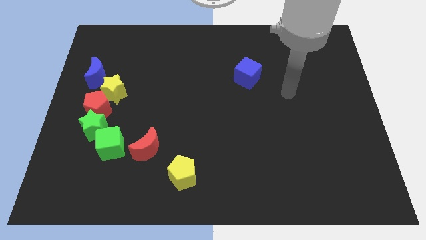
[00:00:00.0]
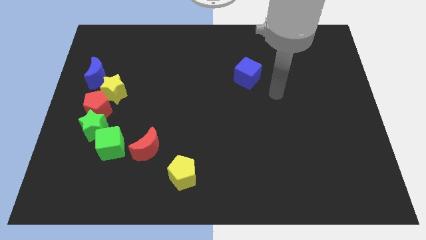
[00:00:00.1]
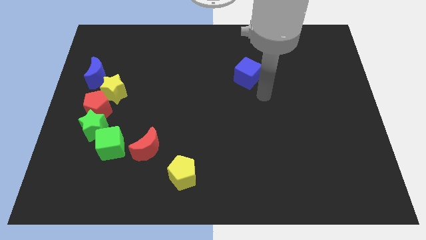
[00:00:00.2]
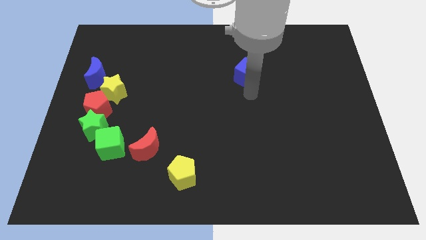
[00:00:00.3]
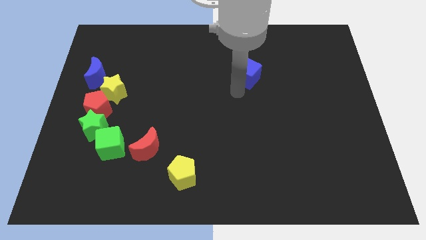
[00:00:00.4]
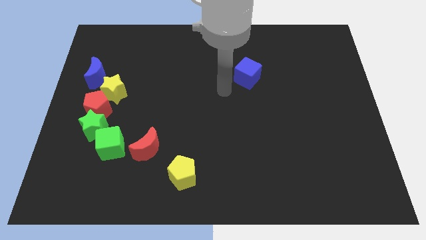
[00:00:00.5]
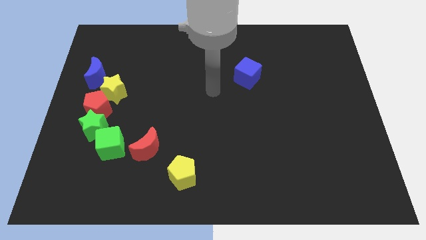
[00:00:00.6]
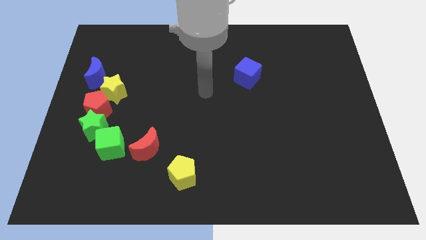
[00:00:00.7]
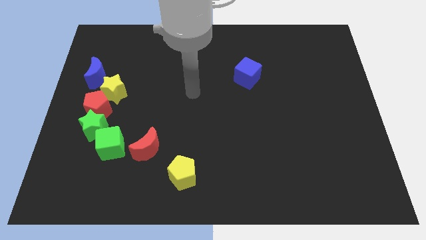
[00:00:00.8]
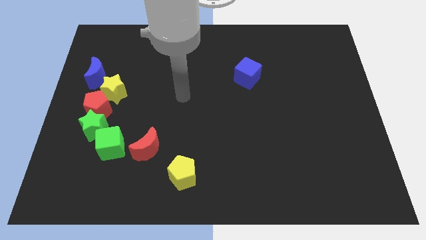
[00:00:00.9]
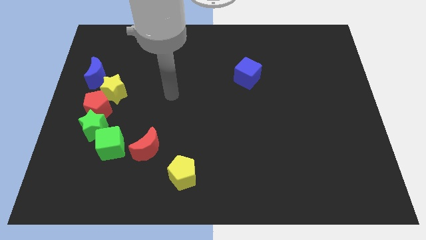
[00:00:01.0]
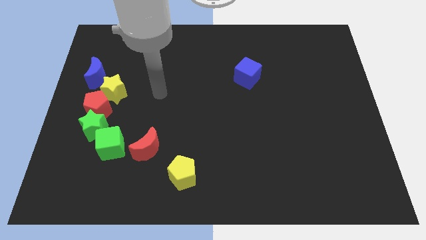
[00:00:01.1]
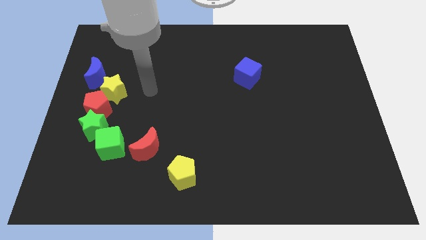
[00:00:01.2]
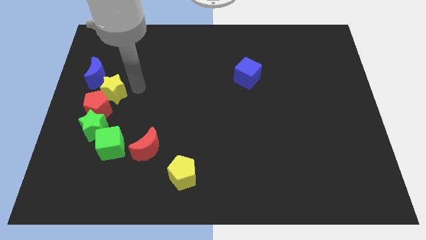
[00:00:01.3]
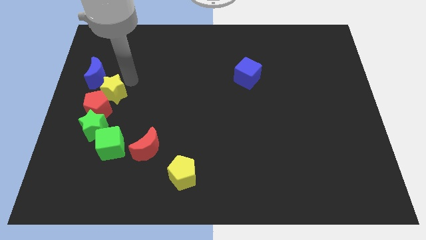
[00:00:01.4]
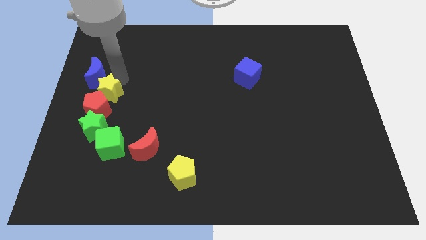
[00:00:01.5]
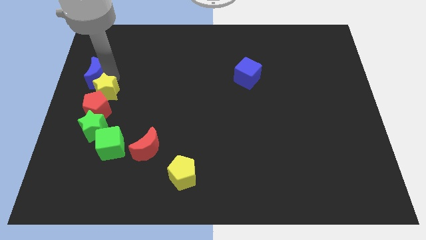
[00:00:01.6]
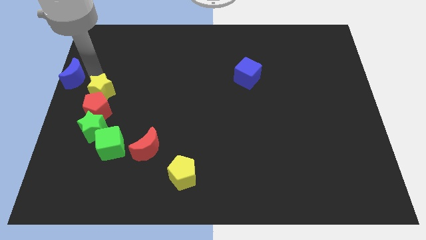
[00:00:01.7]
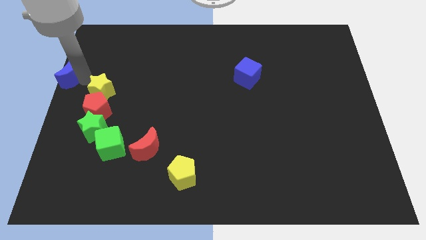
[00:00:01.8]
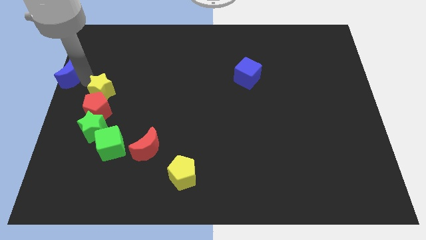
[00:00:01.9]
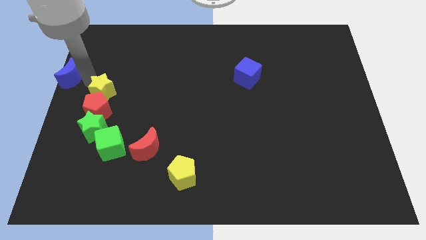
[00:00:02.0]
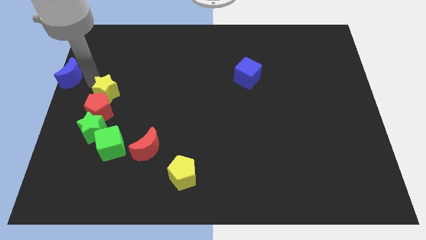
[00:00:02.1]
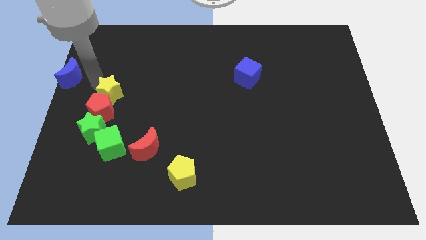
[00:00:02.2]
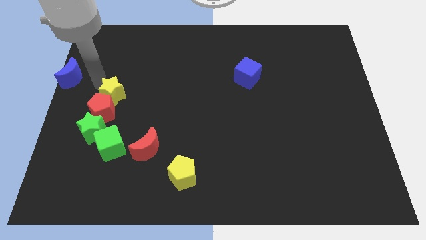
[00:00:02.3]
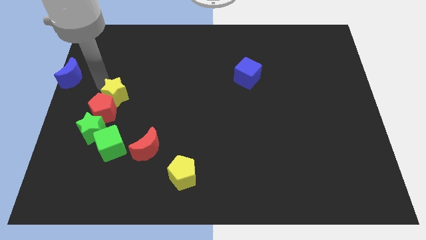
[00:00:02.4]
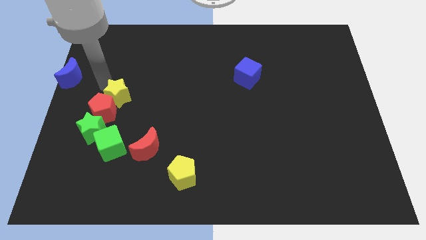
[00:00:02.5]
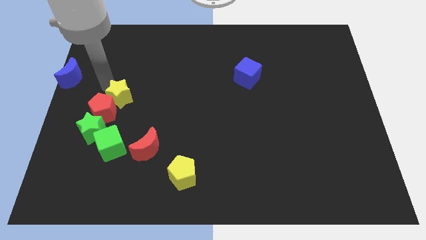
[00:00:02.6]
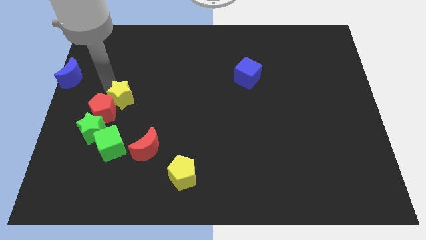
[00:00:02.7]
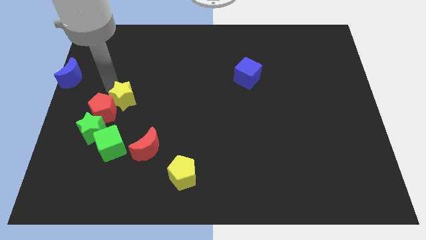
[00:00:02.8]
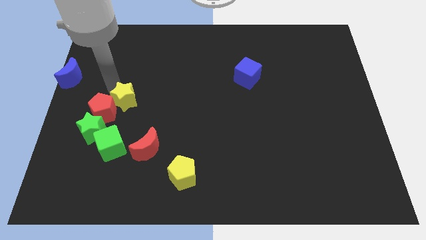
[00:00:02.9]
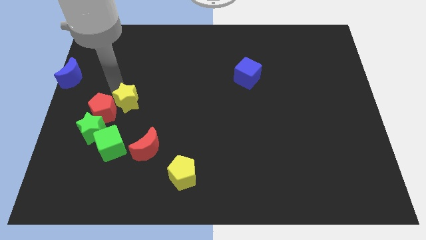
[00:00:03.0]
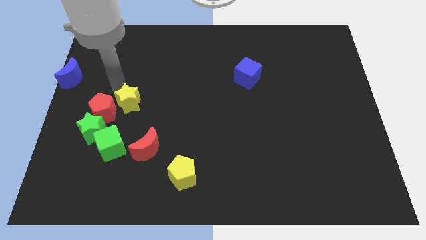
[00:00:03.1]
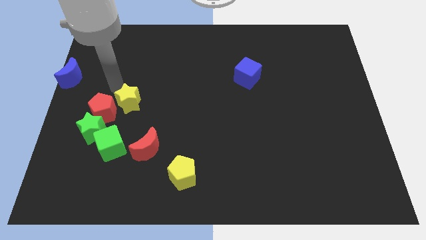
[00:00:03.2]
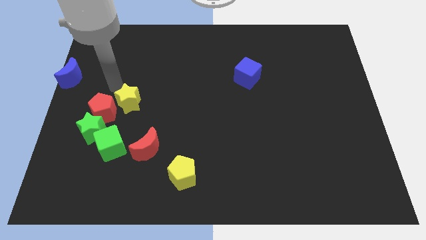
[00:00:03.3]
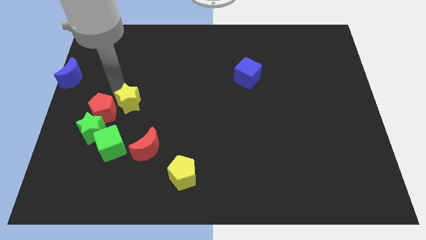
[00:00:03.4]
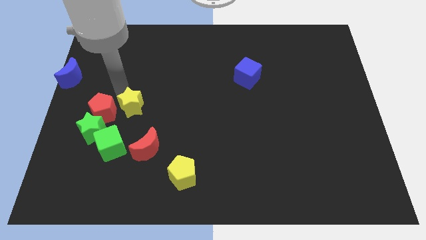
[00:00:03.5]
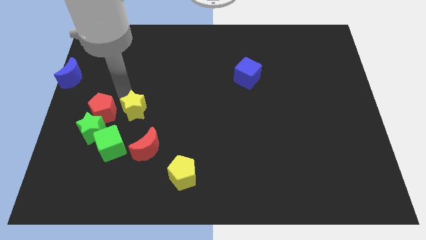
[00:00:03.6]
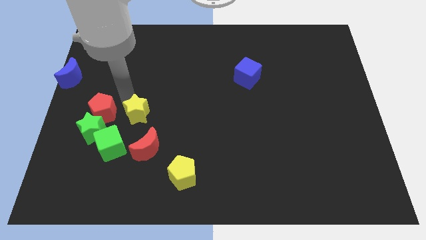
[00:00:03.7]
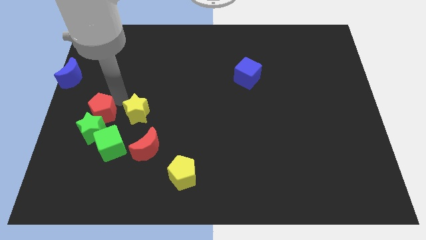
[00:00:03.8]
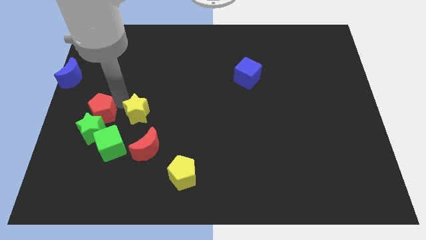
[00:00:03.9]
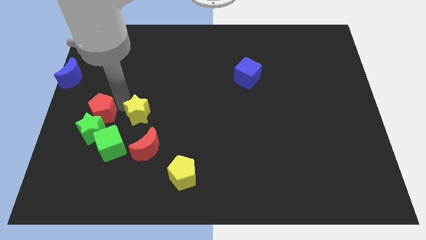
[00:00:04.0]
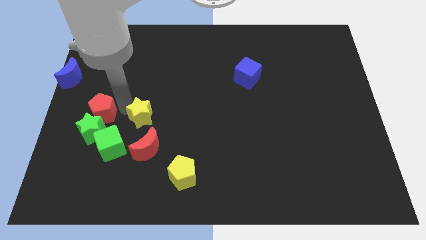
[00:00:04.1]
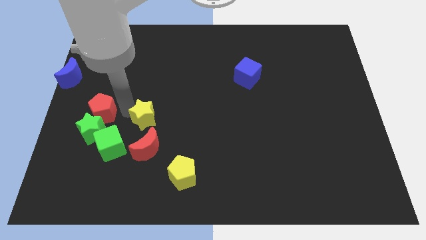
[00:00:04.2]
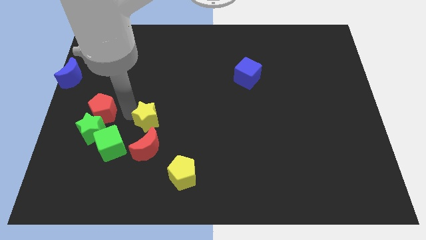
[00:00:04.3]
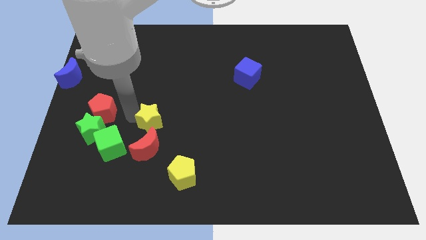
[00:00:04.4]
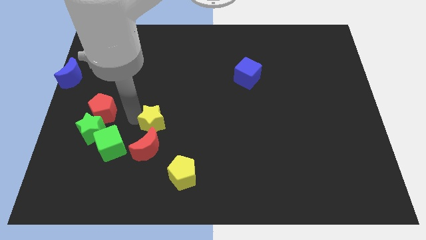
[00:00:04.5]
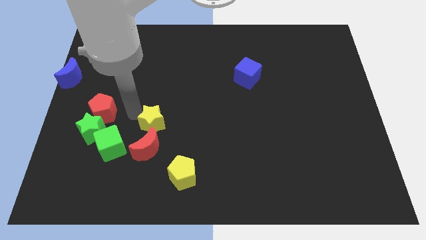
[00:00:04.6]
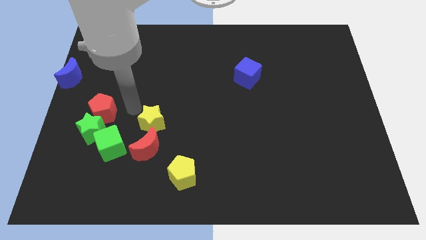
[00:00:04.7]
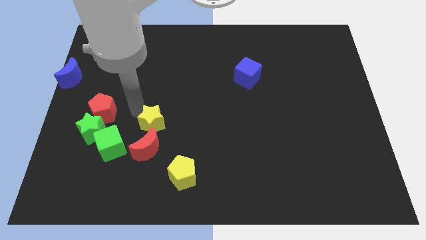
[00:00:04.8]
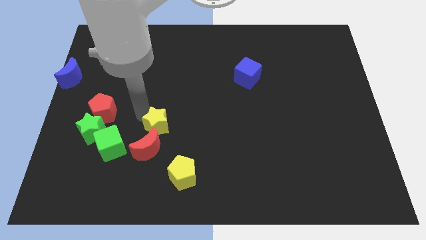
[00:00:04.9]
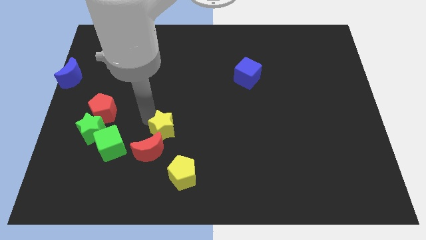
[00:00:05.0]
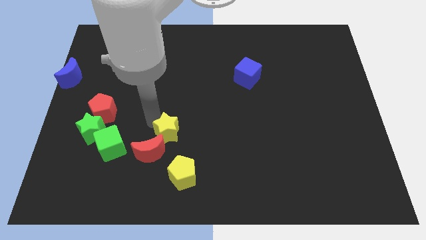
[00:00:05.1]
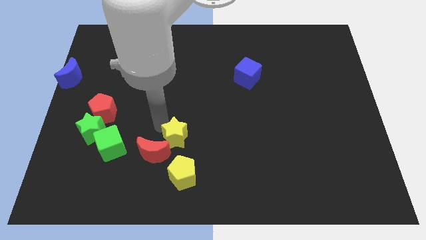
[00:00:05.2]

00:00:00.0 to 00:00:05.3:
slide the yellow star downwards and right

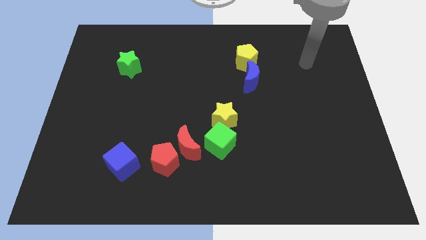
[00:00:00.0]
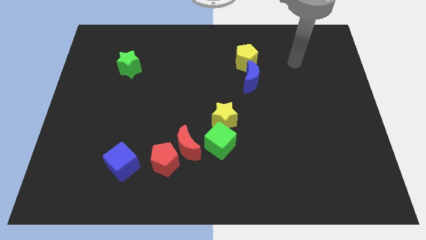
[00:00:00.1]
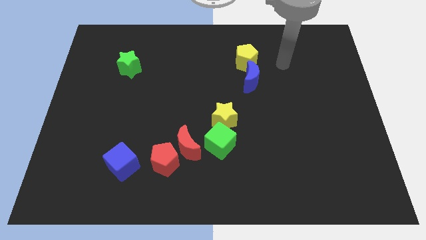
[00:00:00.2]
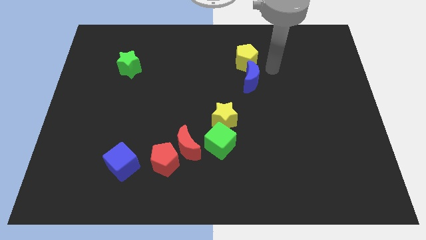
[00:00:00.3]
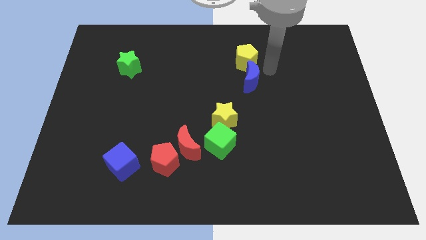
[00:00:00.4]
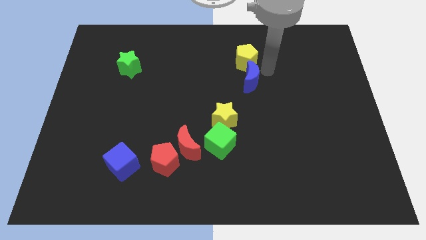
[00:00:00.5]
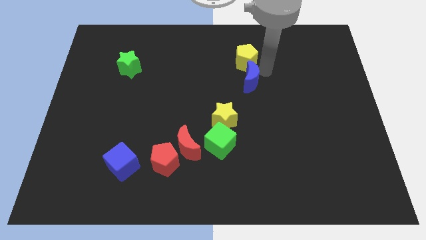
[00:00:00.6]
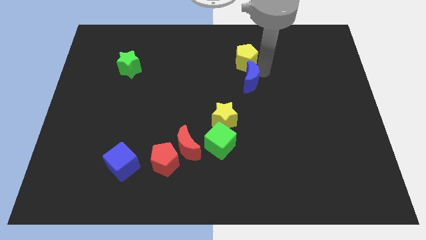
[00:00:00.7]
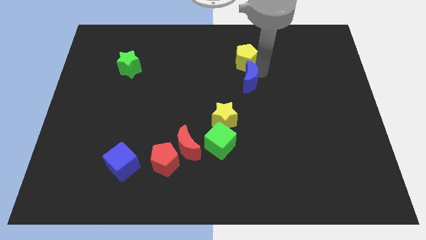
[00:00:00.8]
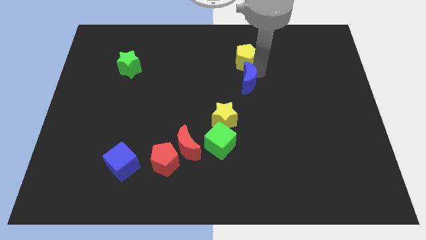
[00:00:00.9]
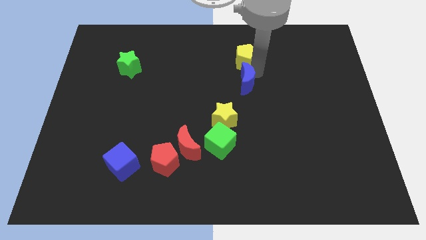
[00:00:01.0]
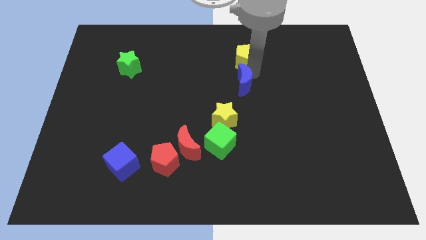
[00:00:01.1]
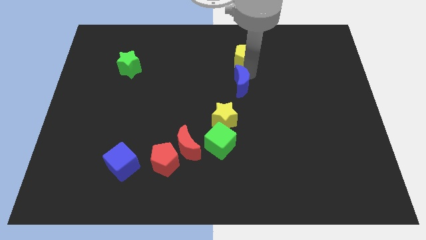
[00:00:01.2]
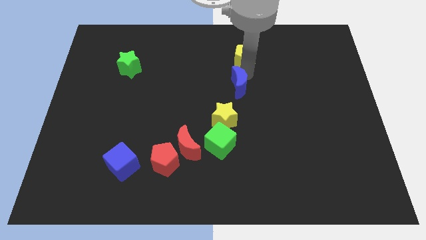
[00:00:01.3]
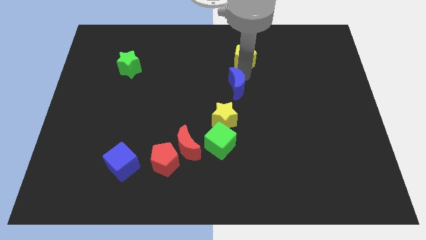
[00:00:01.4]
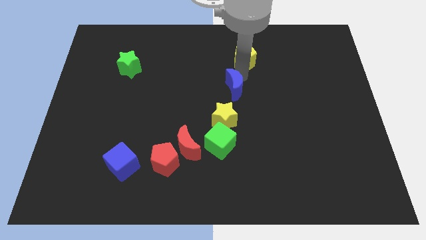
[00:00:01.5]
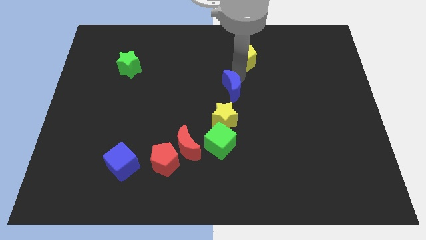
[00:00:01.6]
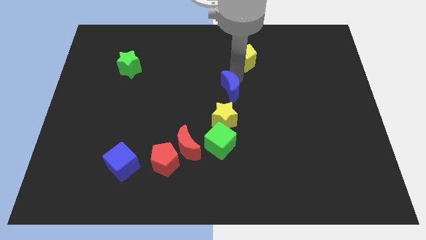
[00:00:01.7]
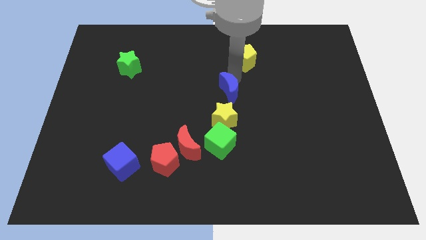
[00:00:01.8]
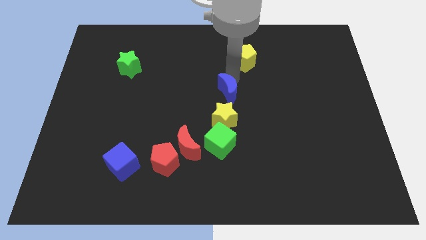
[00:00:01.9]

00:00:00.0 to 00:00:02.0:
slightly move the blue moon downwards and then left

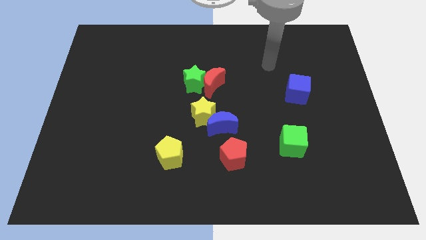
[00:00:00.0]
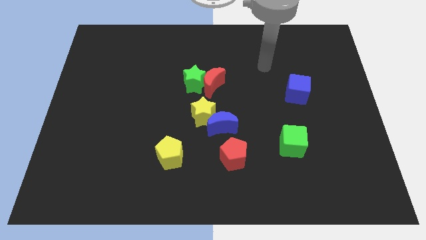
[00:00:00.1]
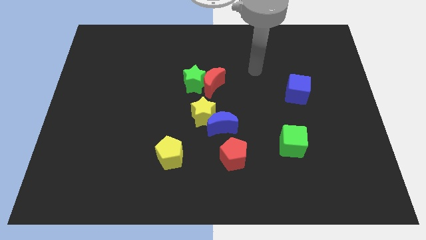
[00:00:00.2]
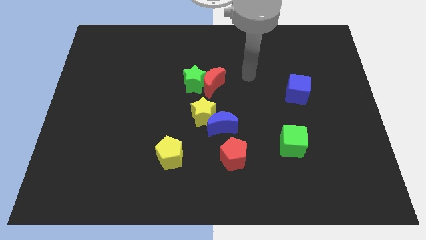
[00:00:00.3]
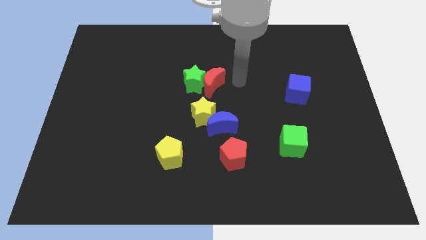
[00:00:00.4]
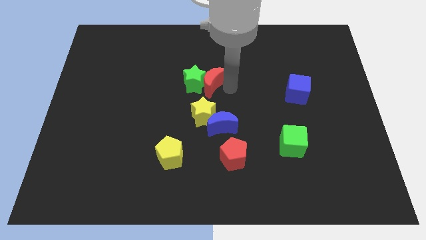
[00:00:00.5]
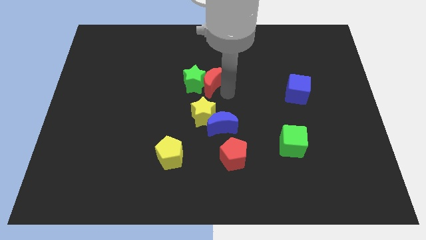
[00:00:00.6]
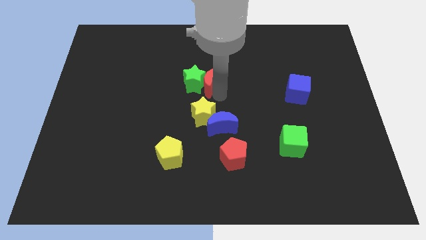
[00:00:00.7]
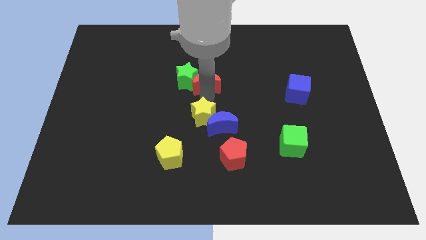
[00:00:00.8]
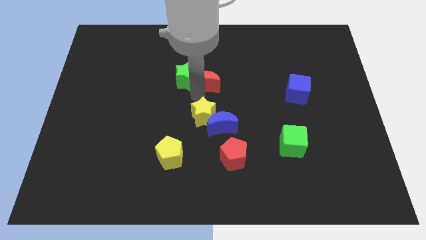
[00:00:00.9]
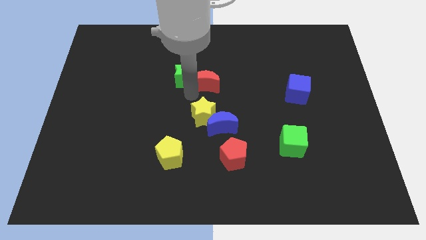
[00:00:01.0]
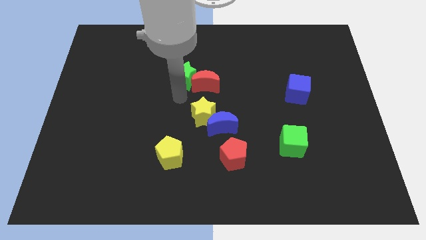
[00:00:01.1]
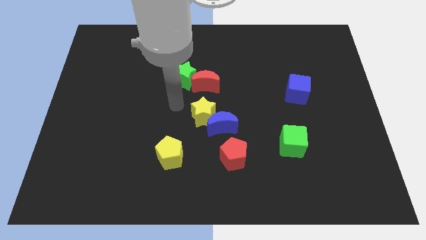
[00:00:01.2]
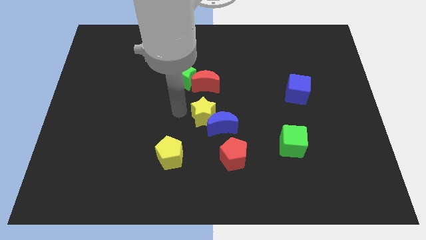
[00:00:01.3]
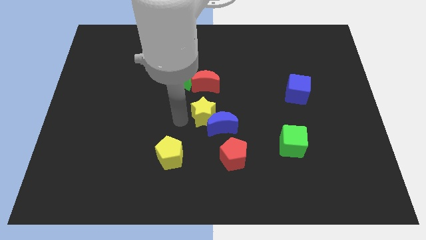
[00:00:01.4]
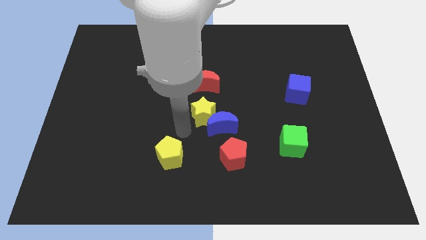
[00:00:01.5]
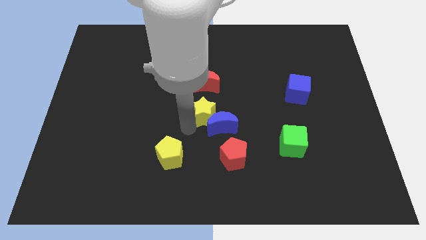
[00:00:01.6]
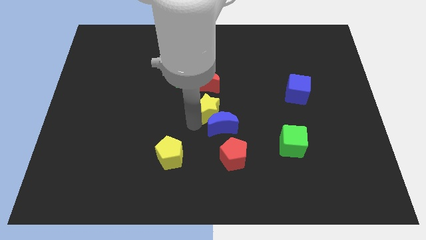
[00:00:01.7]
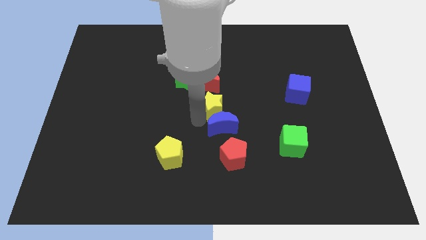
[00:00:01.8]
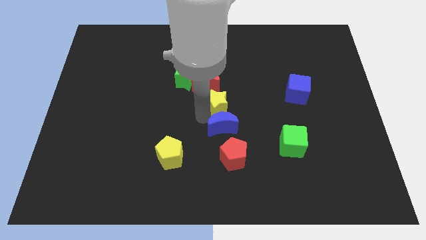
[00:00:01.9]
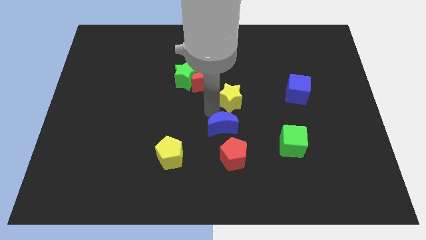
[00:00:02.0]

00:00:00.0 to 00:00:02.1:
slide the yellow star diagonally up and to the right somewhat
